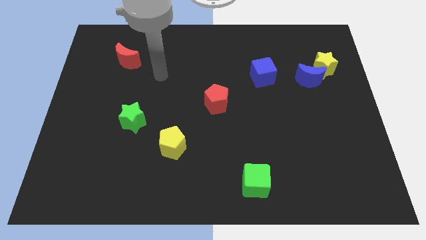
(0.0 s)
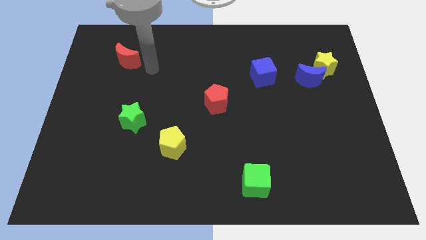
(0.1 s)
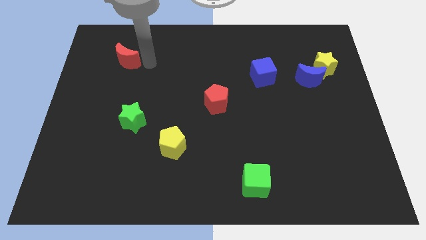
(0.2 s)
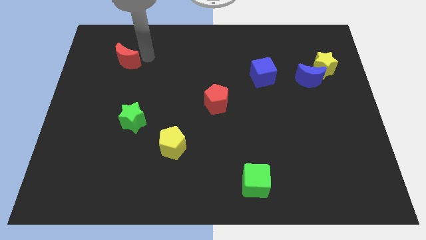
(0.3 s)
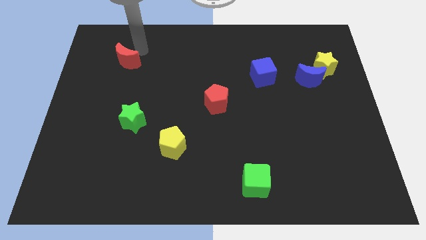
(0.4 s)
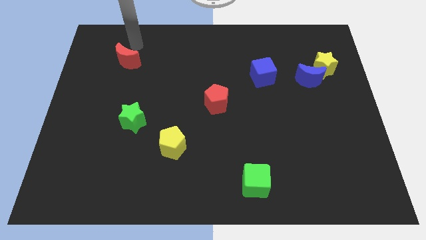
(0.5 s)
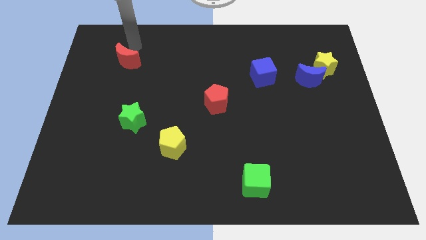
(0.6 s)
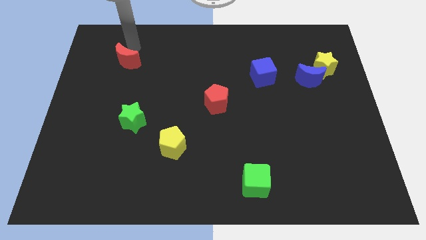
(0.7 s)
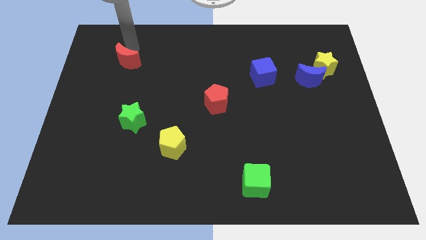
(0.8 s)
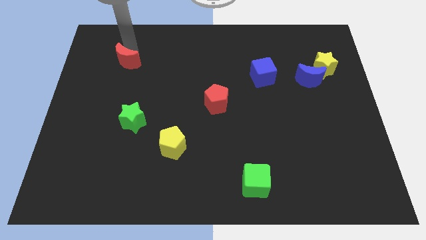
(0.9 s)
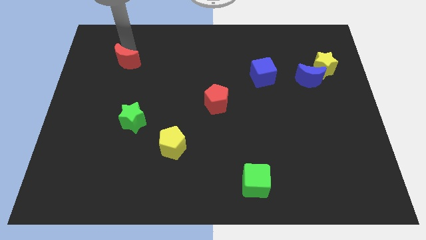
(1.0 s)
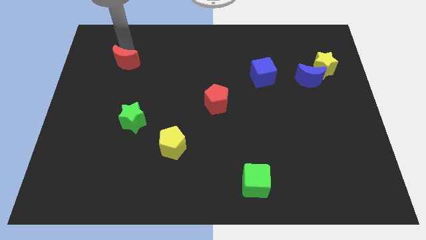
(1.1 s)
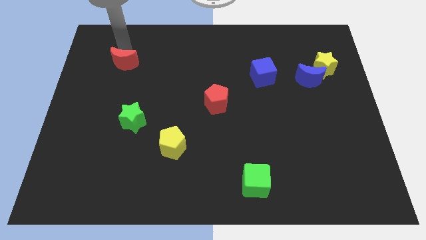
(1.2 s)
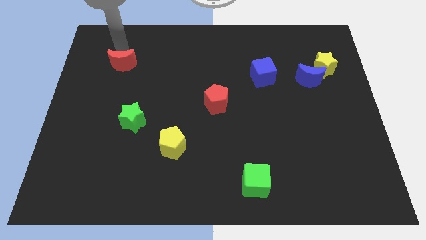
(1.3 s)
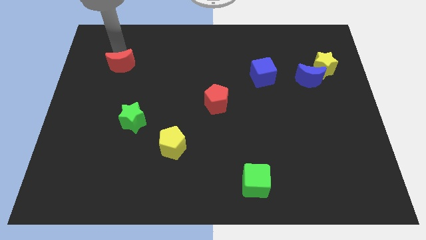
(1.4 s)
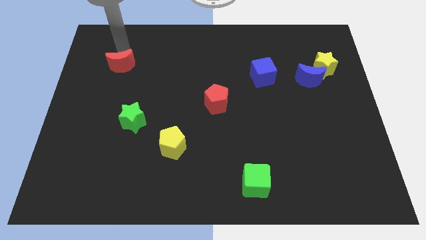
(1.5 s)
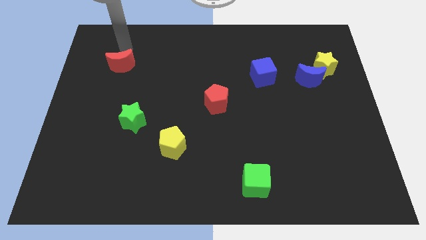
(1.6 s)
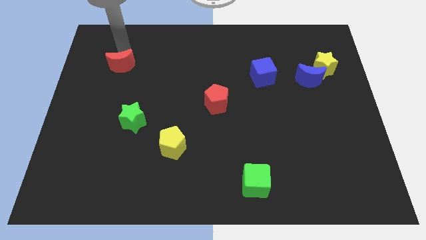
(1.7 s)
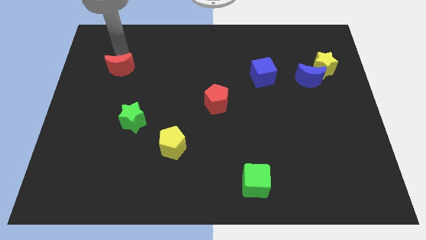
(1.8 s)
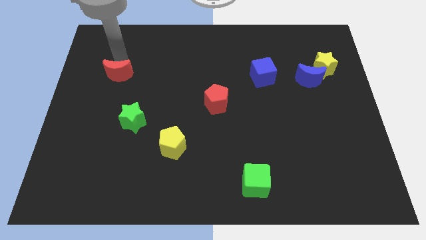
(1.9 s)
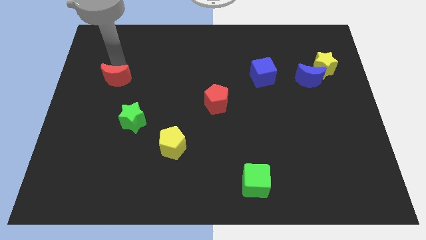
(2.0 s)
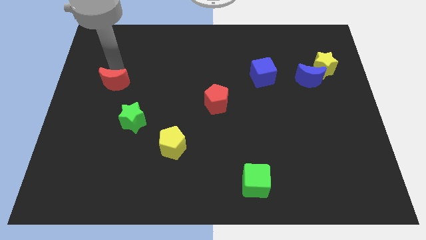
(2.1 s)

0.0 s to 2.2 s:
move the red moon slightly down

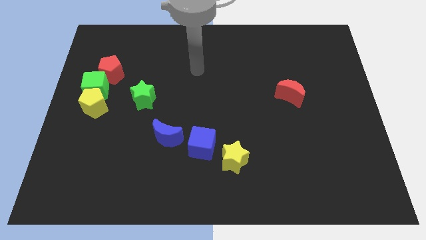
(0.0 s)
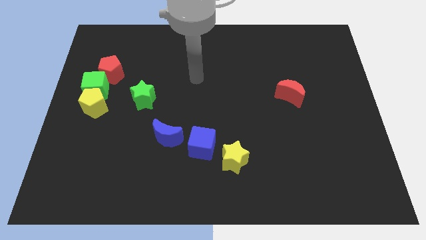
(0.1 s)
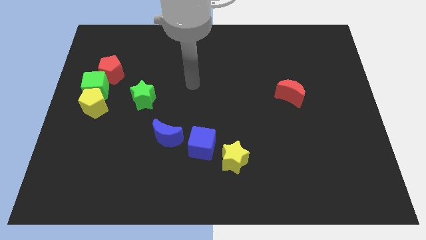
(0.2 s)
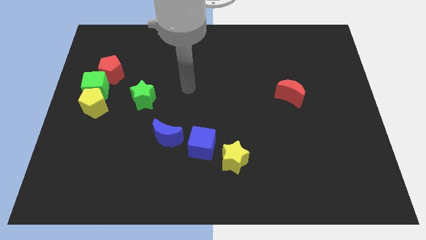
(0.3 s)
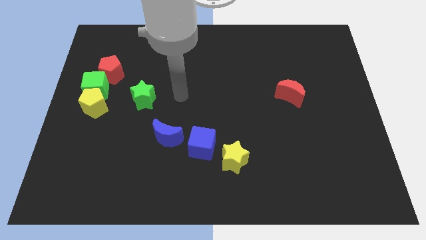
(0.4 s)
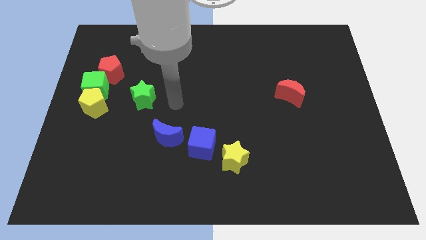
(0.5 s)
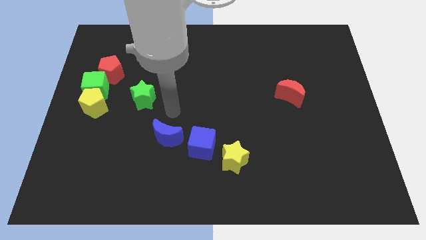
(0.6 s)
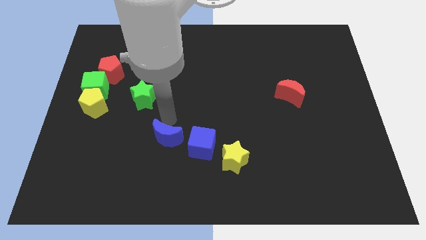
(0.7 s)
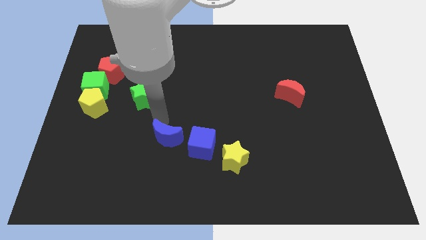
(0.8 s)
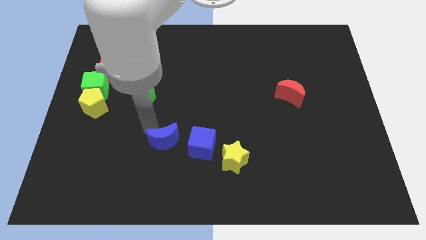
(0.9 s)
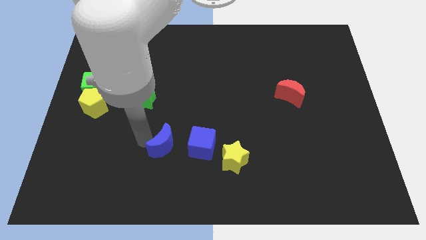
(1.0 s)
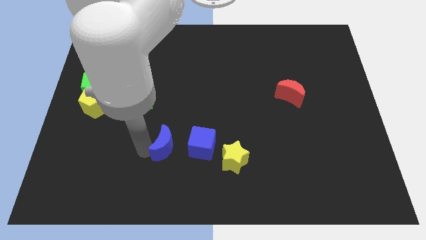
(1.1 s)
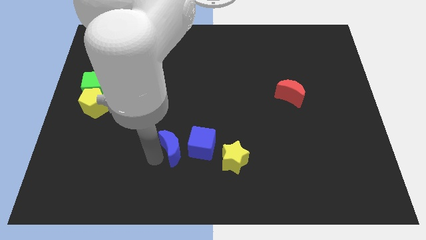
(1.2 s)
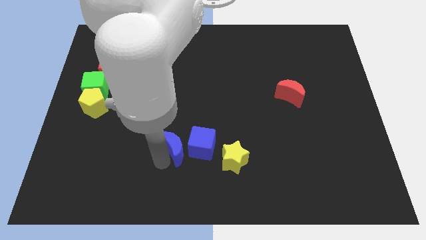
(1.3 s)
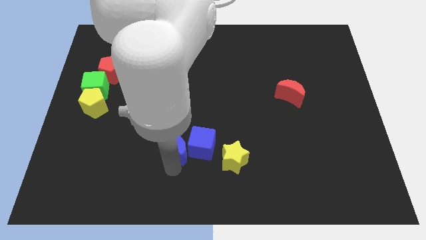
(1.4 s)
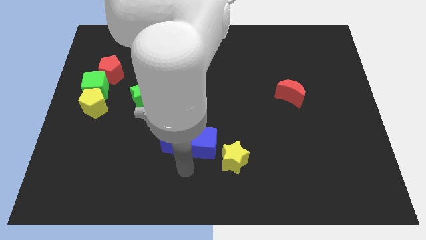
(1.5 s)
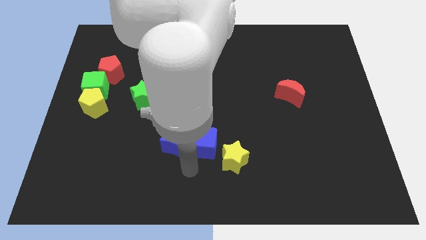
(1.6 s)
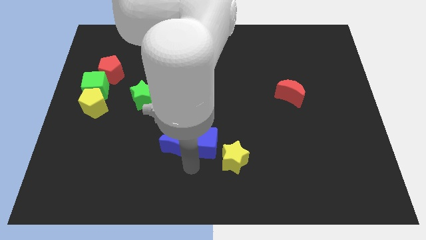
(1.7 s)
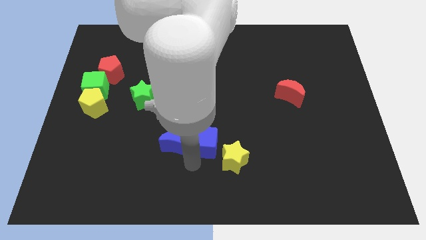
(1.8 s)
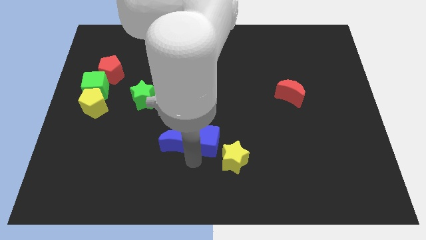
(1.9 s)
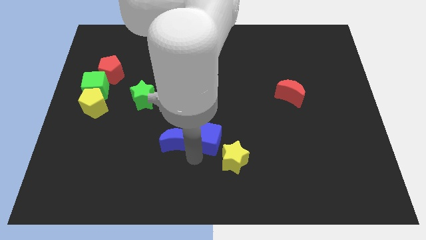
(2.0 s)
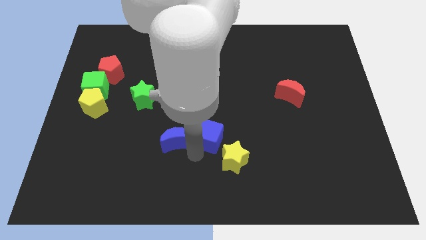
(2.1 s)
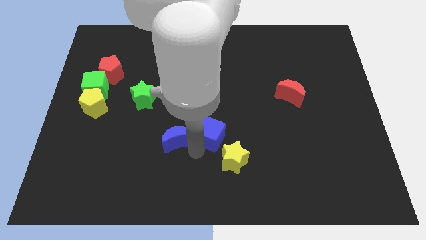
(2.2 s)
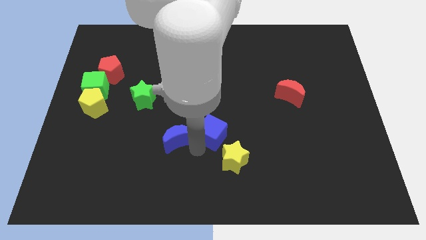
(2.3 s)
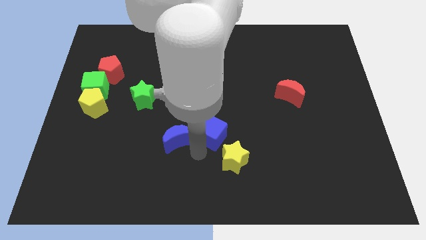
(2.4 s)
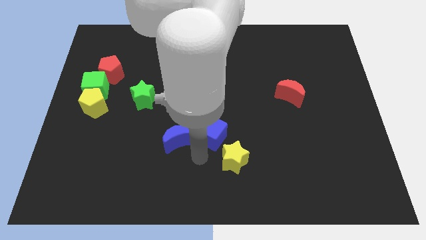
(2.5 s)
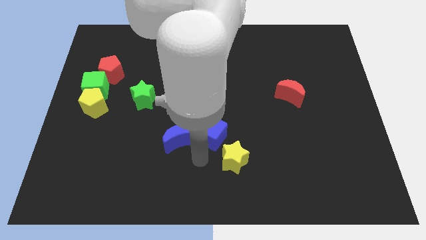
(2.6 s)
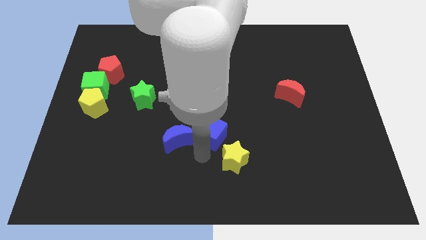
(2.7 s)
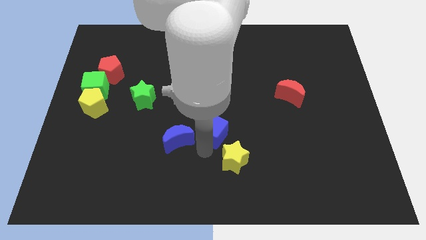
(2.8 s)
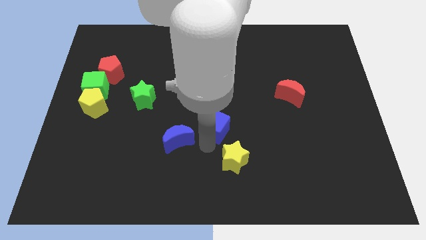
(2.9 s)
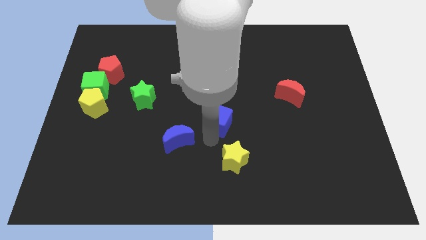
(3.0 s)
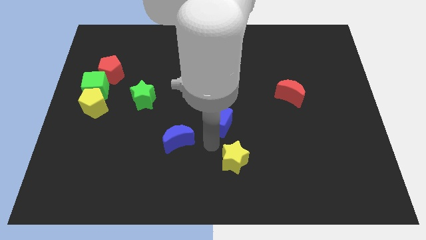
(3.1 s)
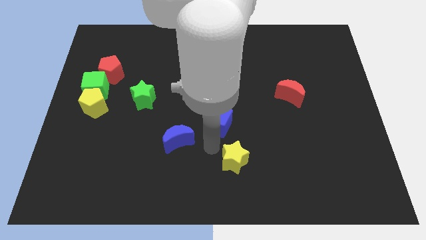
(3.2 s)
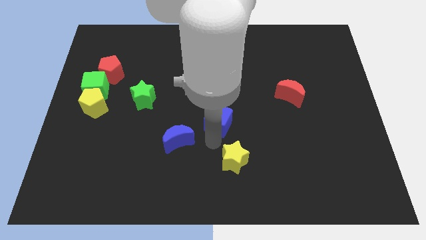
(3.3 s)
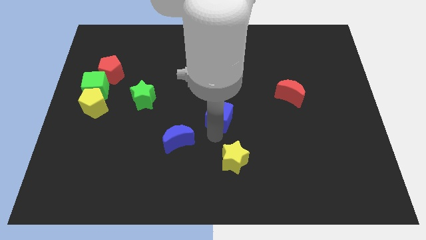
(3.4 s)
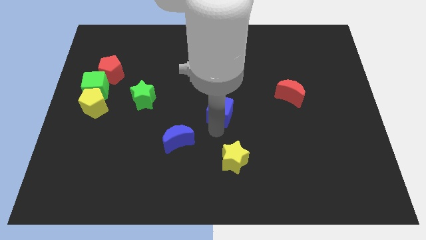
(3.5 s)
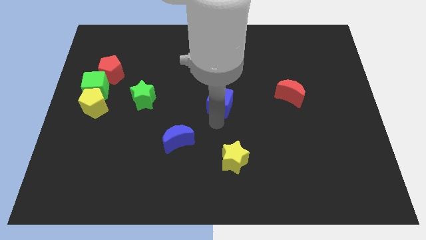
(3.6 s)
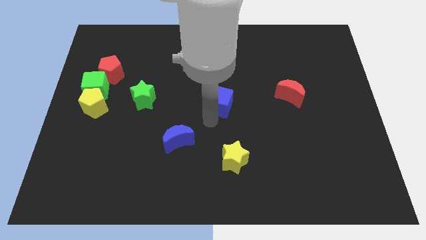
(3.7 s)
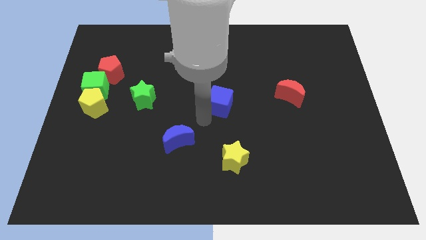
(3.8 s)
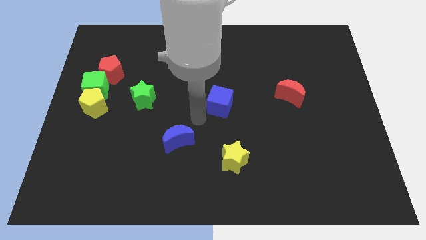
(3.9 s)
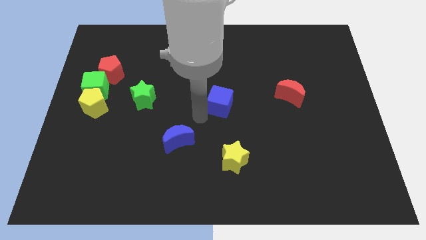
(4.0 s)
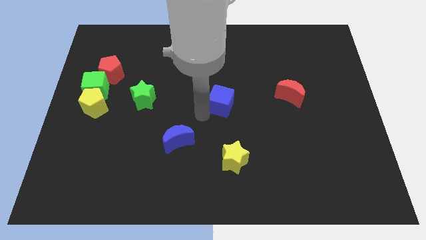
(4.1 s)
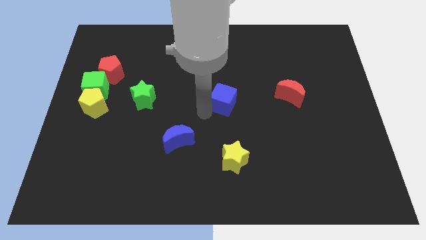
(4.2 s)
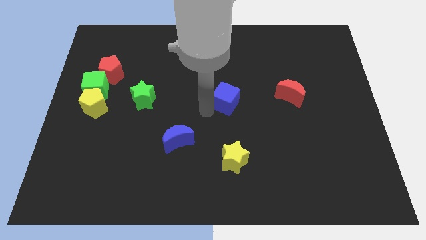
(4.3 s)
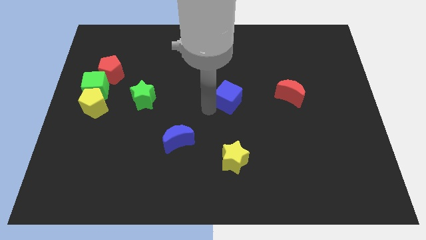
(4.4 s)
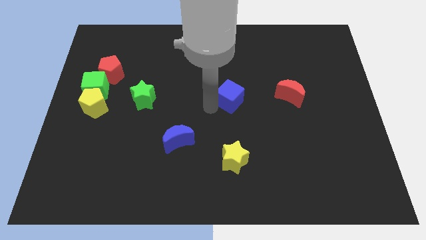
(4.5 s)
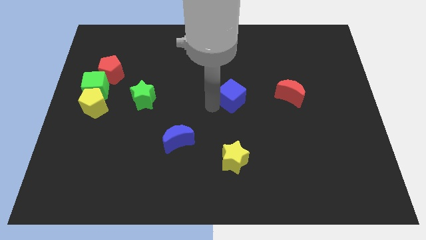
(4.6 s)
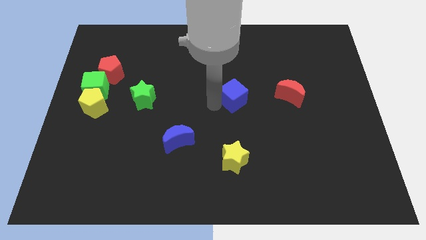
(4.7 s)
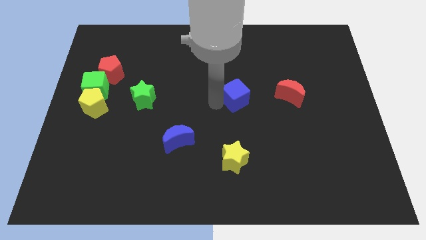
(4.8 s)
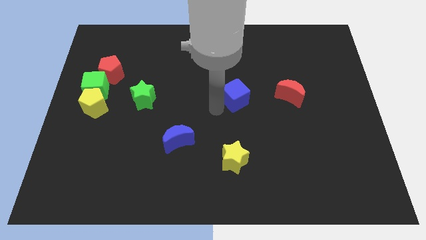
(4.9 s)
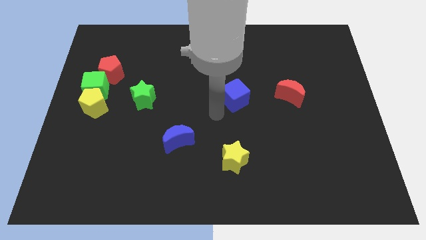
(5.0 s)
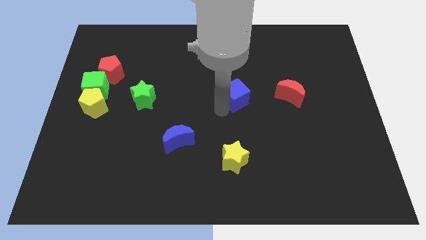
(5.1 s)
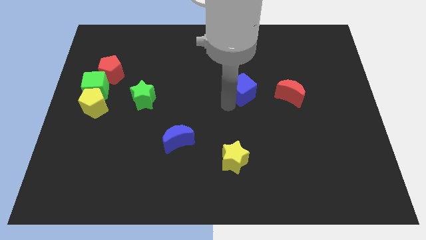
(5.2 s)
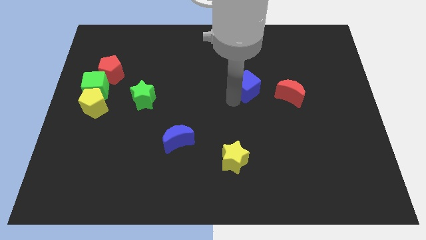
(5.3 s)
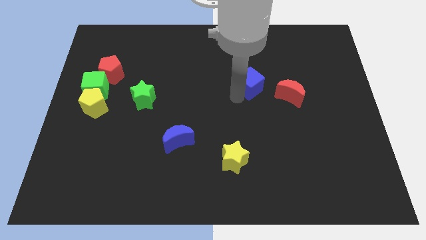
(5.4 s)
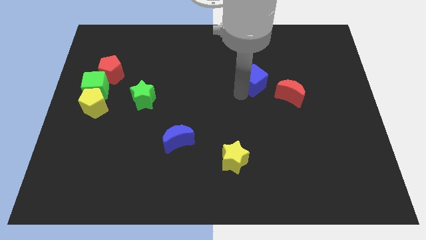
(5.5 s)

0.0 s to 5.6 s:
push the blue cube upwards and right

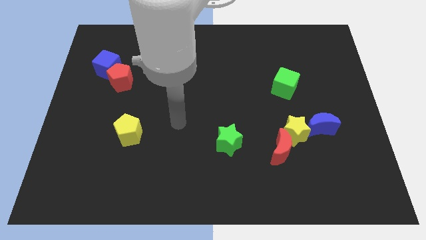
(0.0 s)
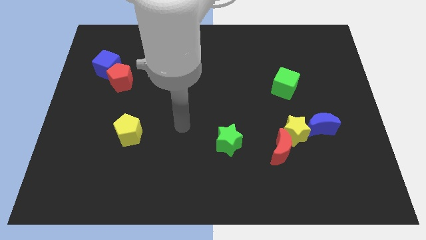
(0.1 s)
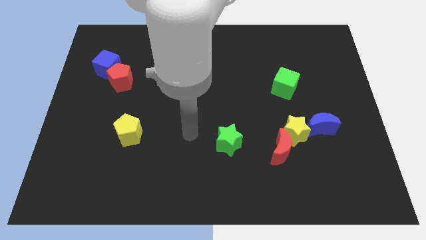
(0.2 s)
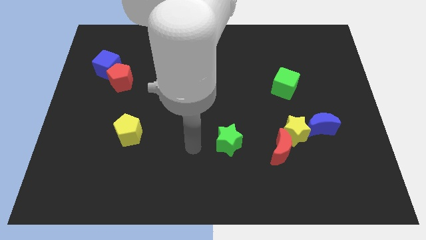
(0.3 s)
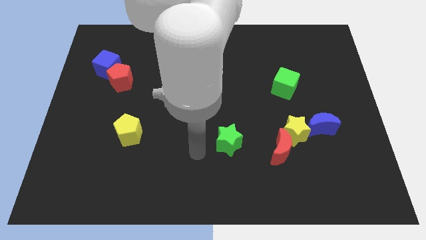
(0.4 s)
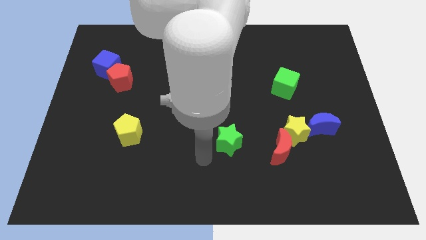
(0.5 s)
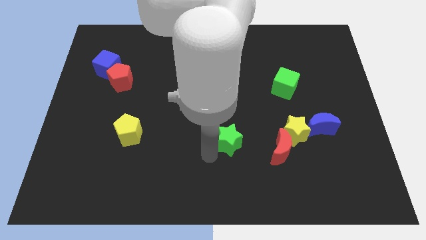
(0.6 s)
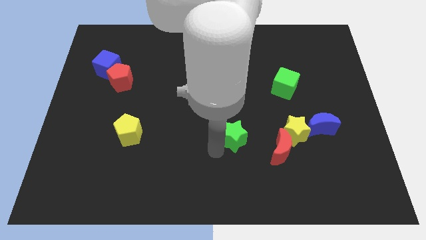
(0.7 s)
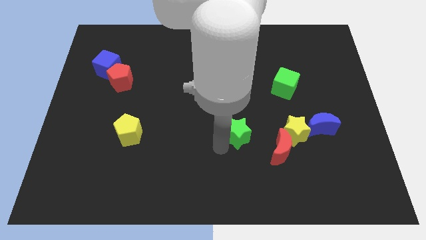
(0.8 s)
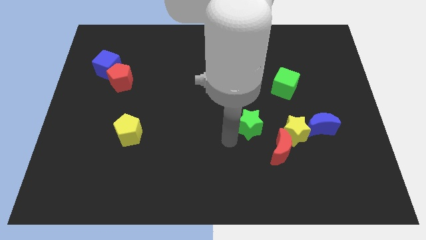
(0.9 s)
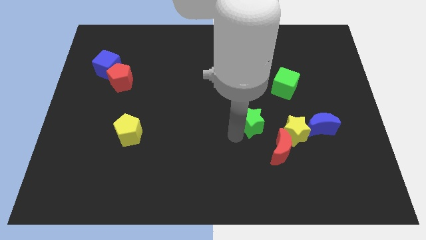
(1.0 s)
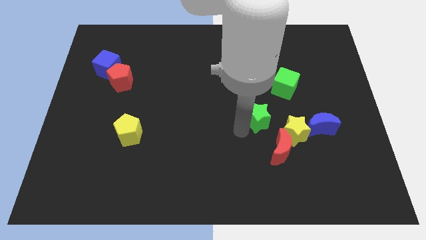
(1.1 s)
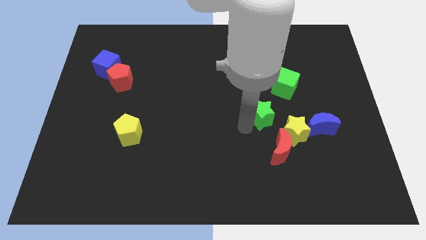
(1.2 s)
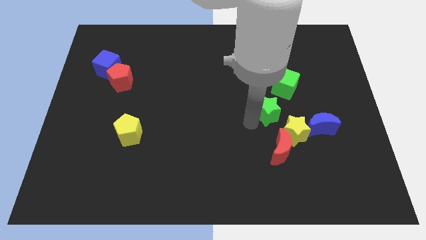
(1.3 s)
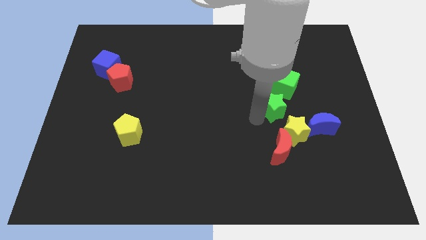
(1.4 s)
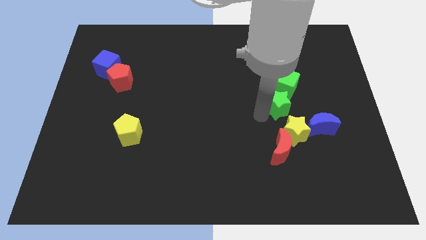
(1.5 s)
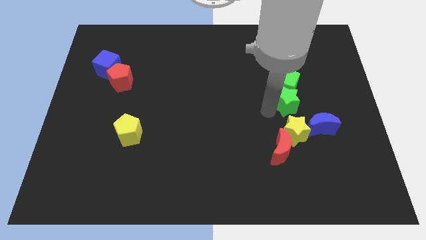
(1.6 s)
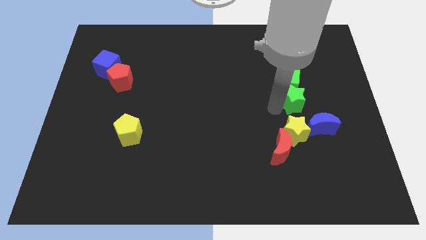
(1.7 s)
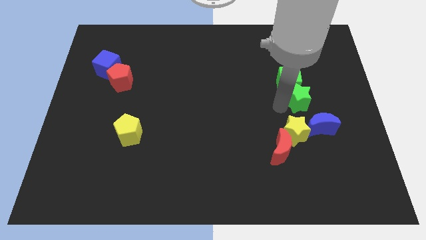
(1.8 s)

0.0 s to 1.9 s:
slide the green star up and then right
